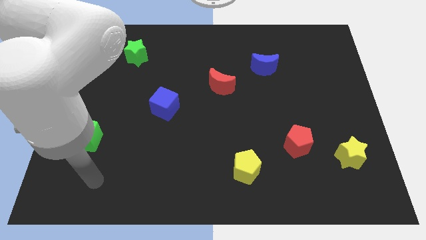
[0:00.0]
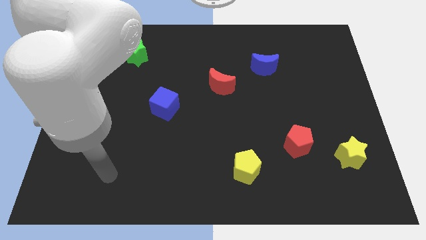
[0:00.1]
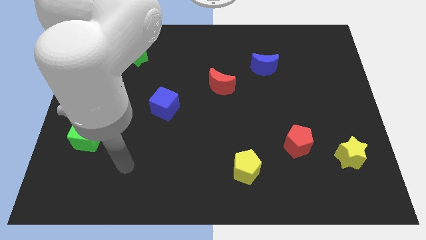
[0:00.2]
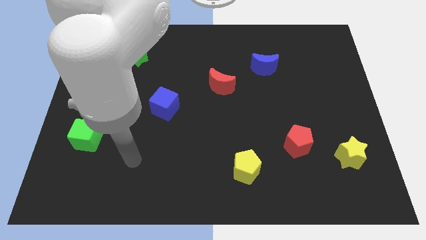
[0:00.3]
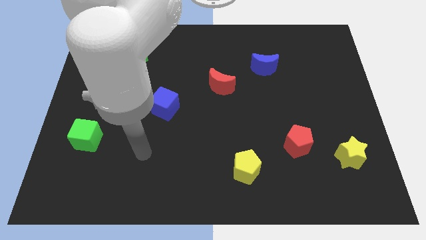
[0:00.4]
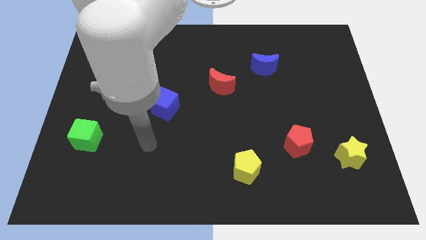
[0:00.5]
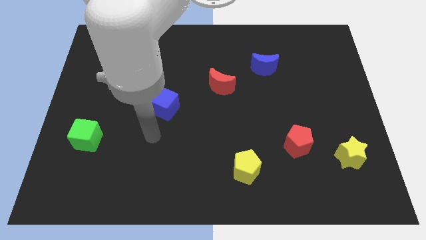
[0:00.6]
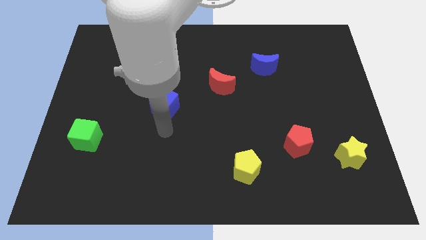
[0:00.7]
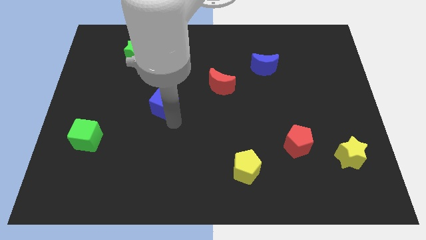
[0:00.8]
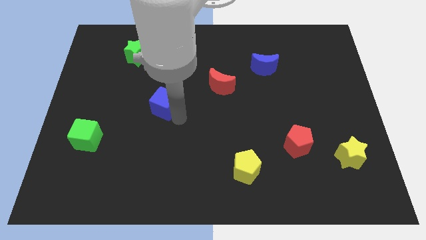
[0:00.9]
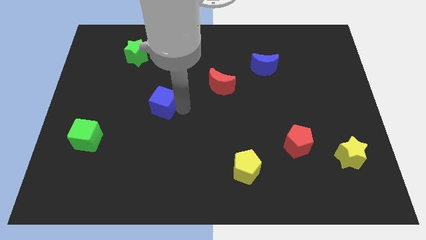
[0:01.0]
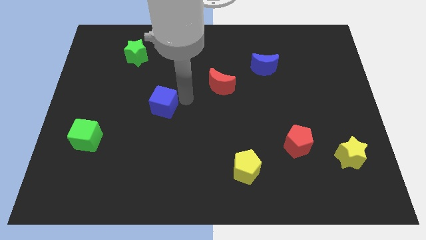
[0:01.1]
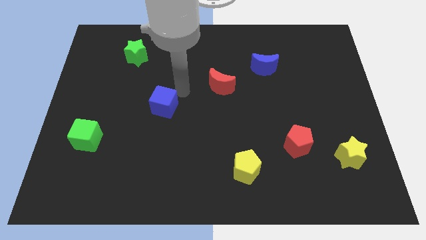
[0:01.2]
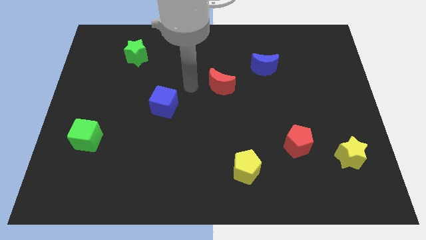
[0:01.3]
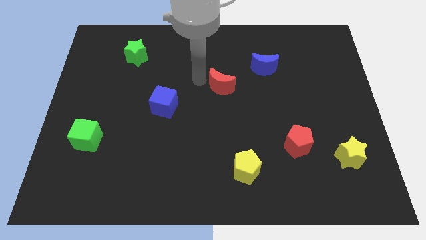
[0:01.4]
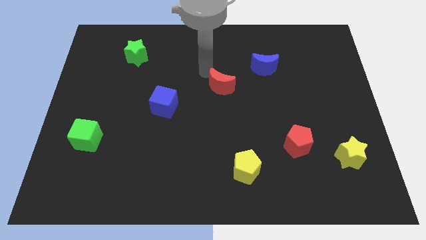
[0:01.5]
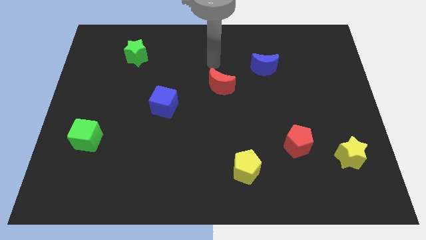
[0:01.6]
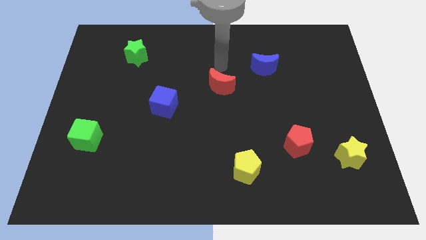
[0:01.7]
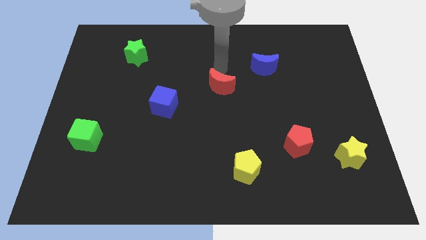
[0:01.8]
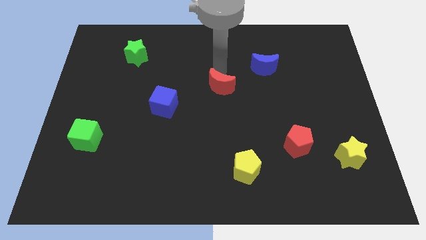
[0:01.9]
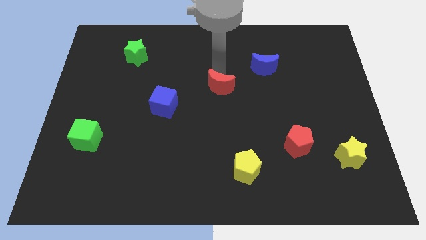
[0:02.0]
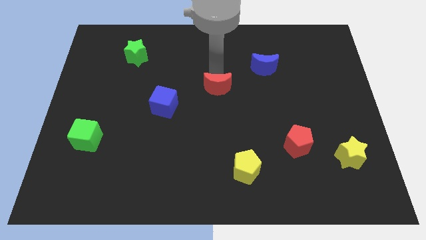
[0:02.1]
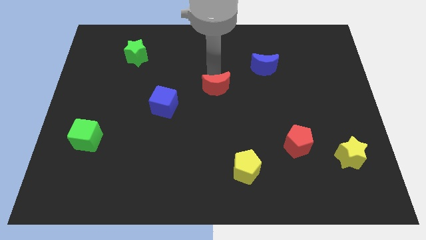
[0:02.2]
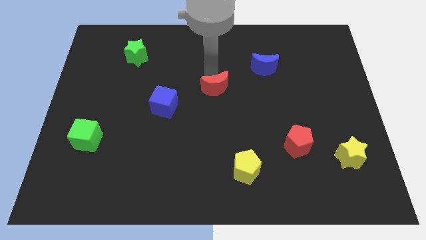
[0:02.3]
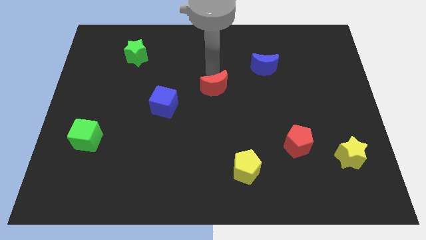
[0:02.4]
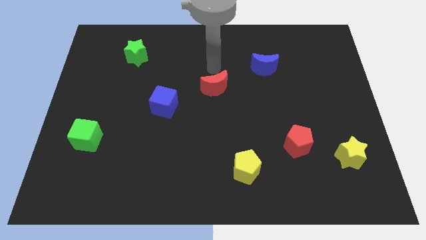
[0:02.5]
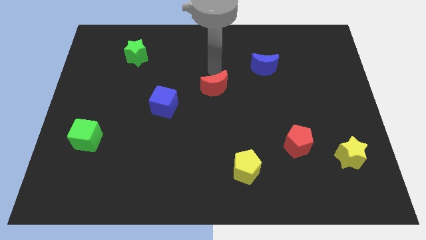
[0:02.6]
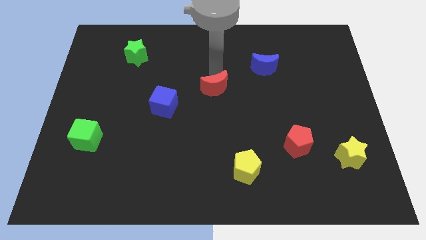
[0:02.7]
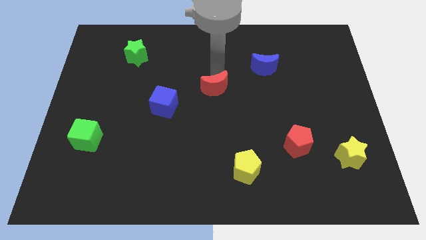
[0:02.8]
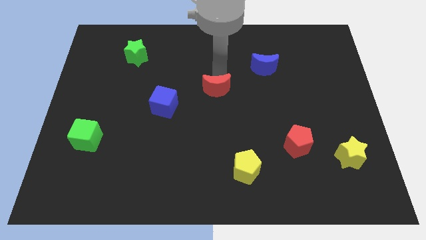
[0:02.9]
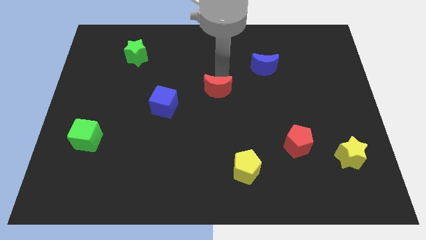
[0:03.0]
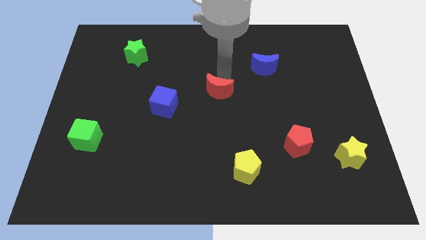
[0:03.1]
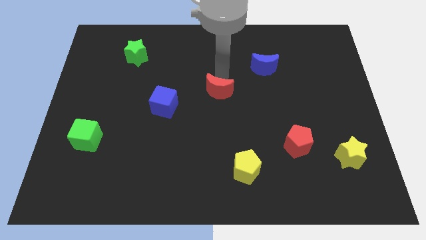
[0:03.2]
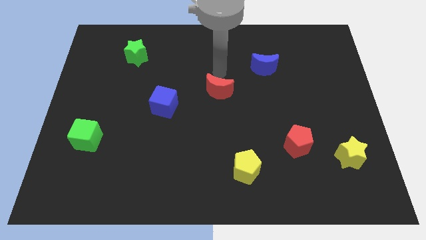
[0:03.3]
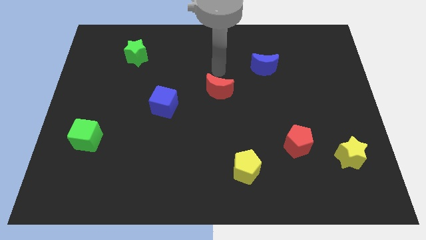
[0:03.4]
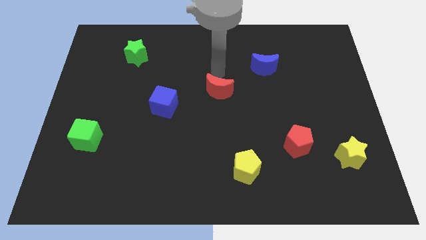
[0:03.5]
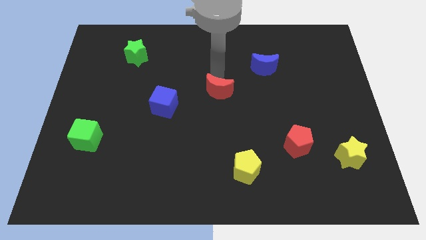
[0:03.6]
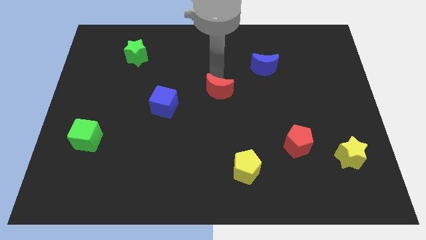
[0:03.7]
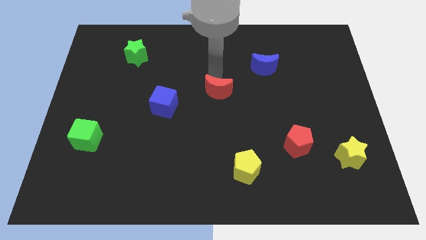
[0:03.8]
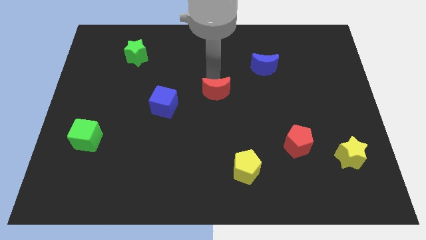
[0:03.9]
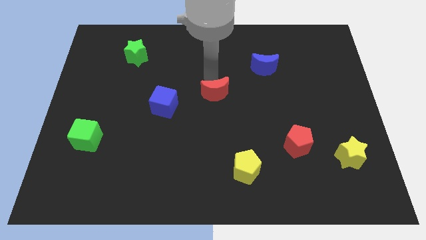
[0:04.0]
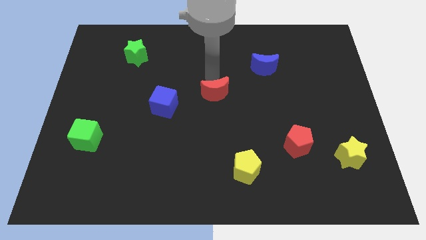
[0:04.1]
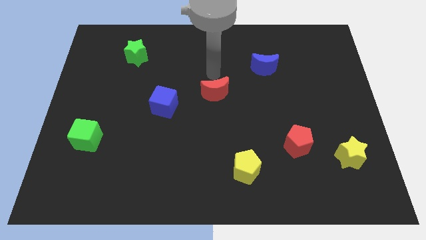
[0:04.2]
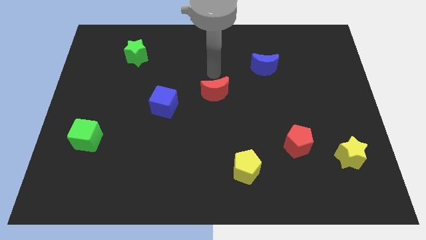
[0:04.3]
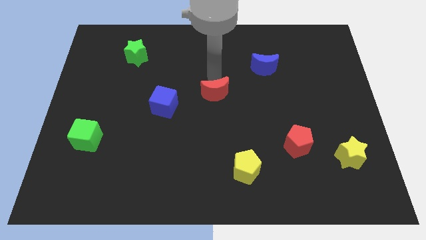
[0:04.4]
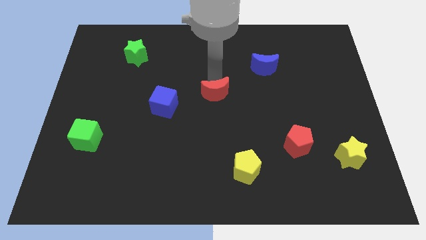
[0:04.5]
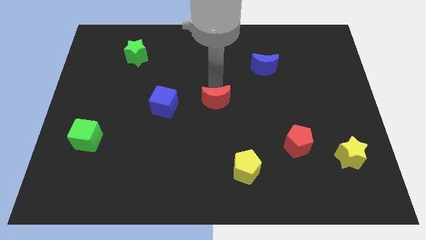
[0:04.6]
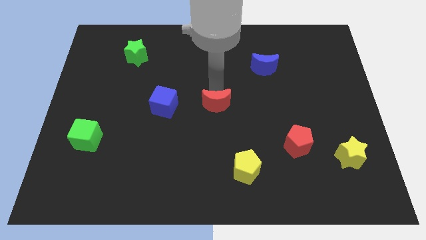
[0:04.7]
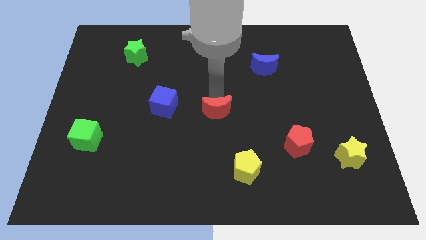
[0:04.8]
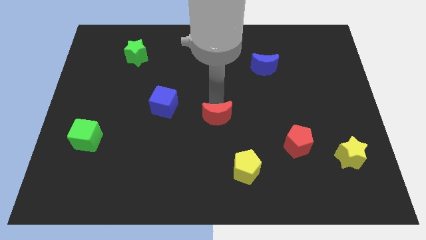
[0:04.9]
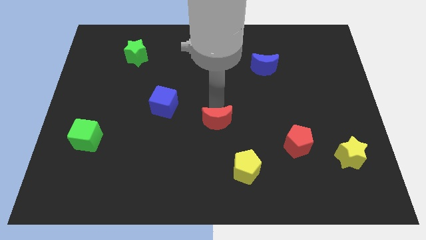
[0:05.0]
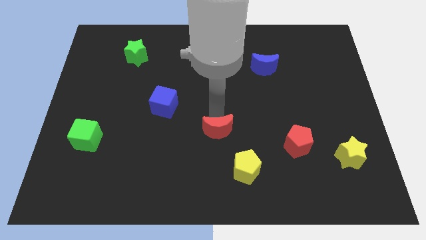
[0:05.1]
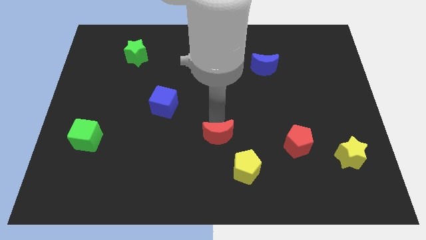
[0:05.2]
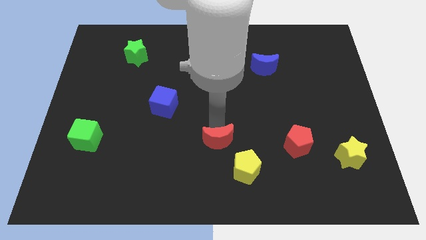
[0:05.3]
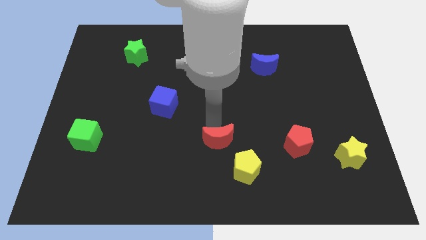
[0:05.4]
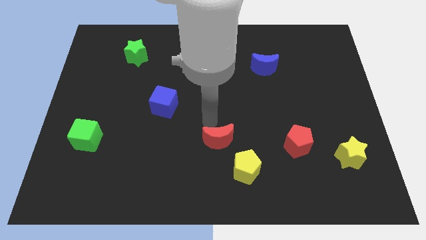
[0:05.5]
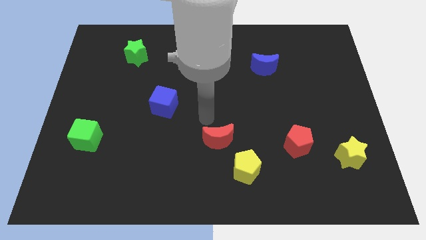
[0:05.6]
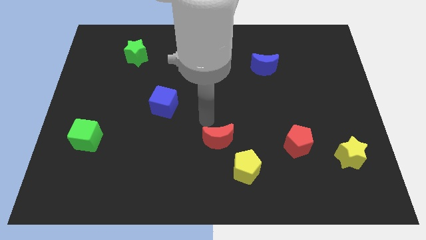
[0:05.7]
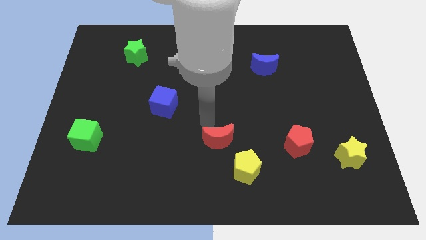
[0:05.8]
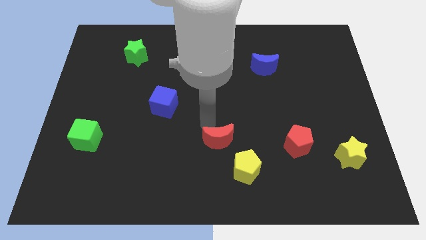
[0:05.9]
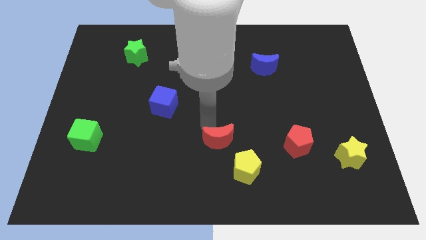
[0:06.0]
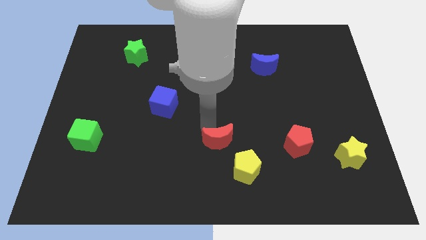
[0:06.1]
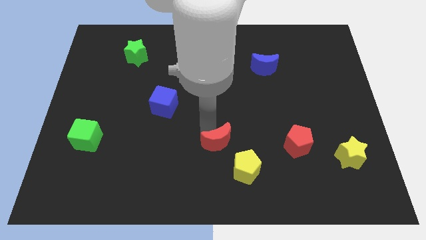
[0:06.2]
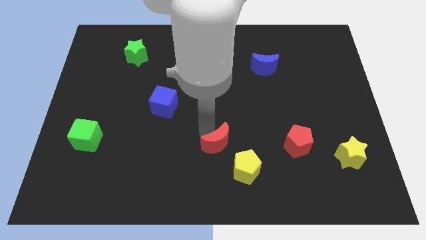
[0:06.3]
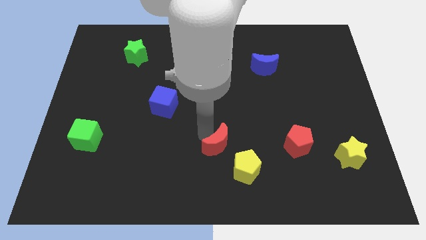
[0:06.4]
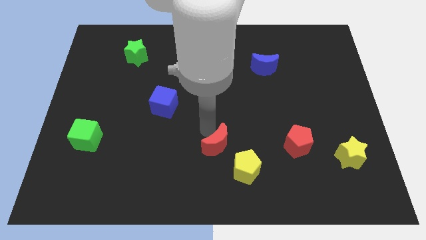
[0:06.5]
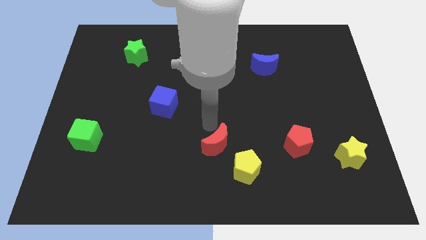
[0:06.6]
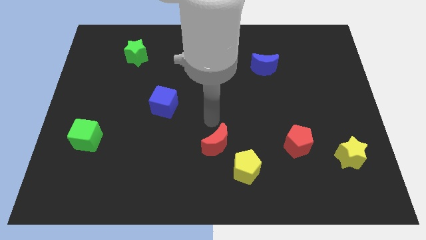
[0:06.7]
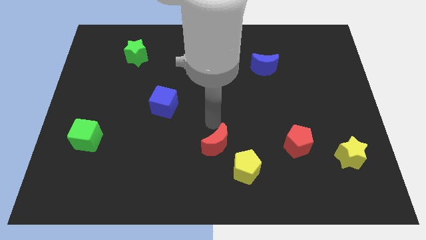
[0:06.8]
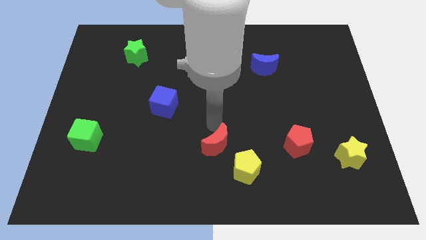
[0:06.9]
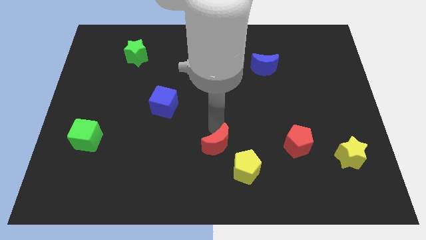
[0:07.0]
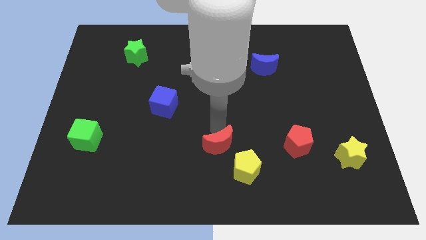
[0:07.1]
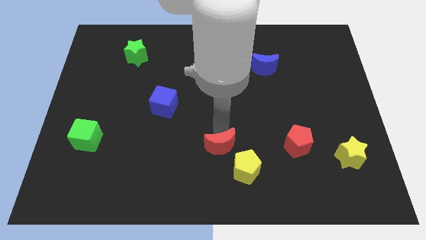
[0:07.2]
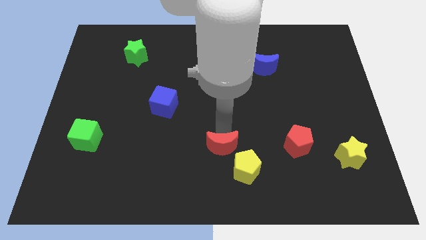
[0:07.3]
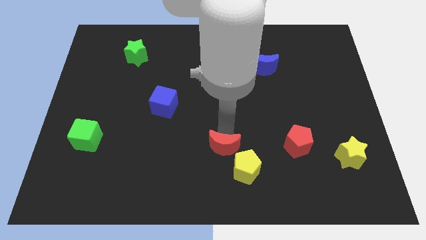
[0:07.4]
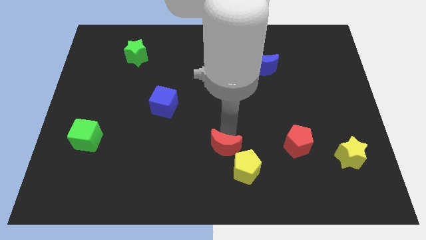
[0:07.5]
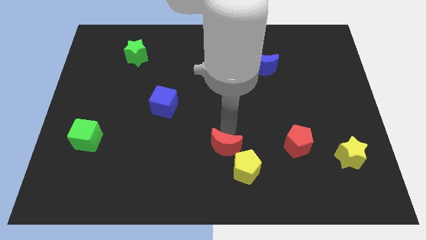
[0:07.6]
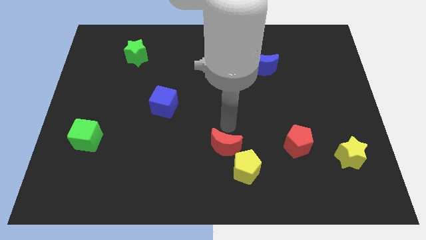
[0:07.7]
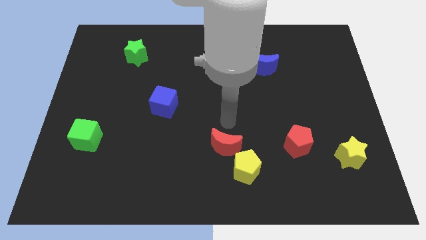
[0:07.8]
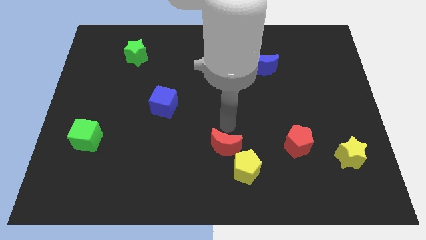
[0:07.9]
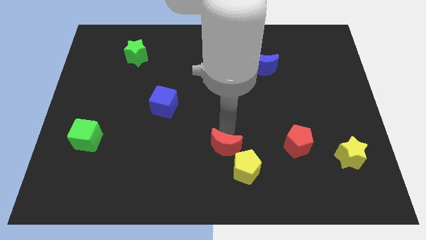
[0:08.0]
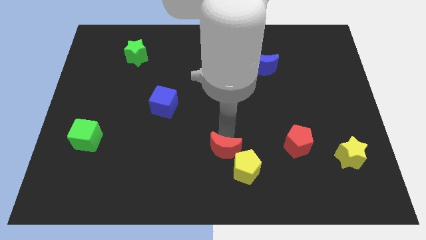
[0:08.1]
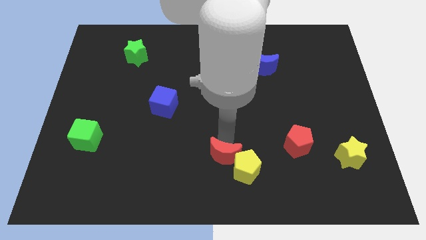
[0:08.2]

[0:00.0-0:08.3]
move the red moon to the bottom
